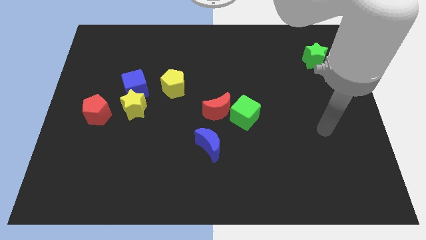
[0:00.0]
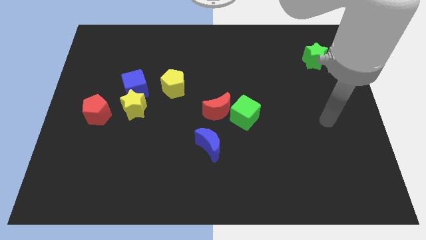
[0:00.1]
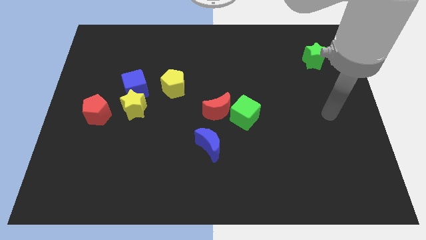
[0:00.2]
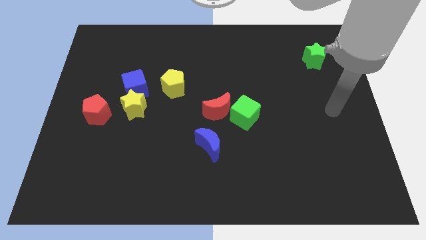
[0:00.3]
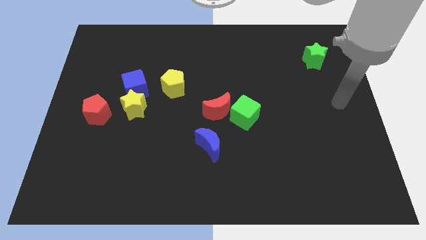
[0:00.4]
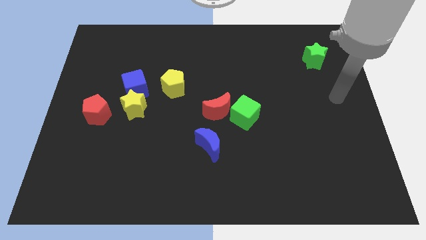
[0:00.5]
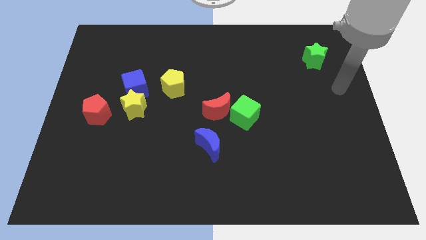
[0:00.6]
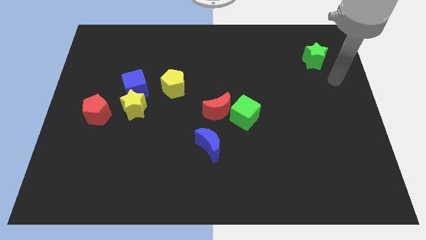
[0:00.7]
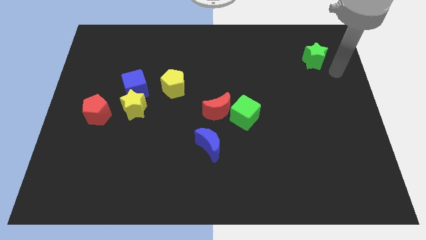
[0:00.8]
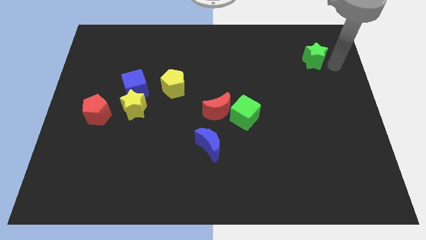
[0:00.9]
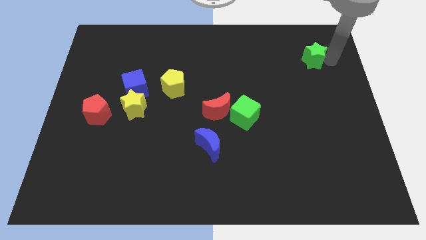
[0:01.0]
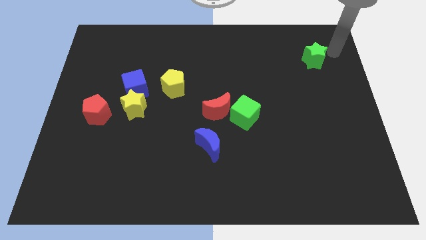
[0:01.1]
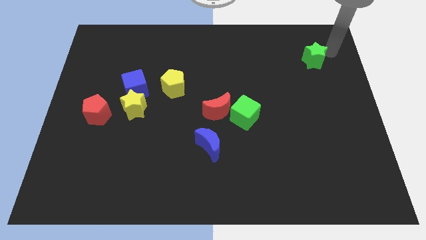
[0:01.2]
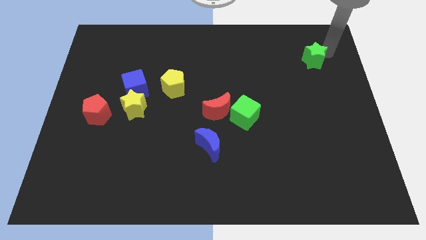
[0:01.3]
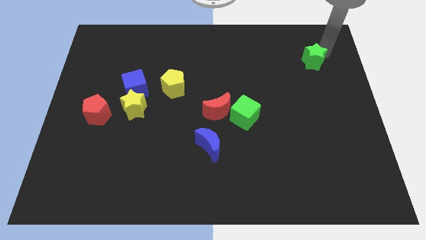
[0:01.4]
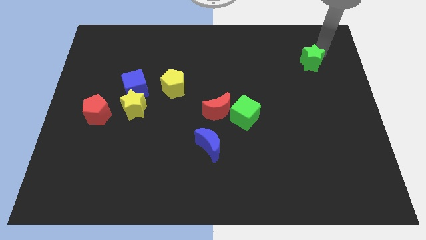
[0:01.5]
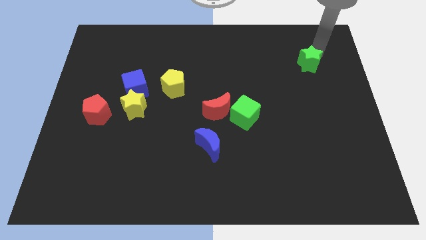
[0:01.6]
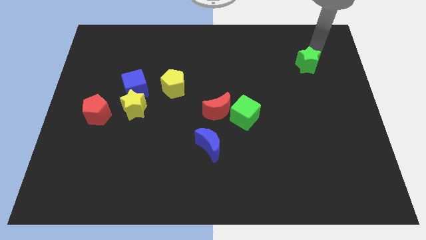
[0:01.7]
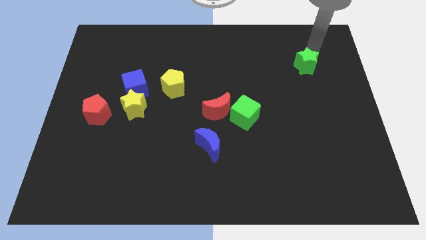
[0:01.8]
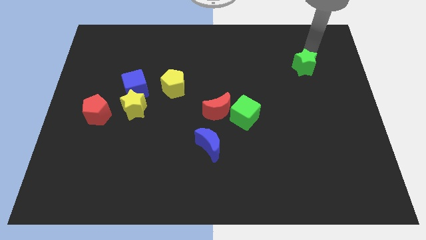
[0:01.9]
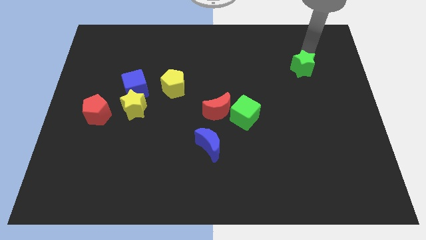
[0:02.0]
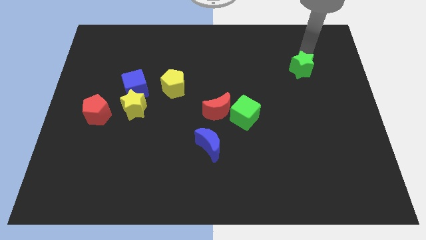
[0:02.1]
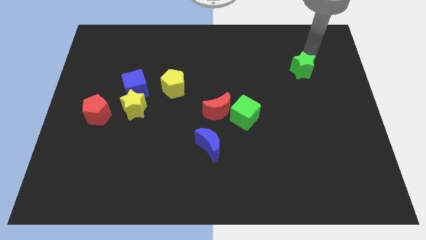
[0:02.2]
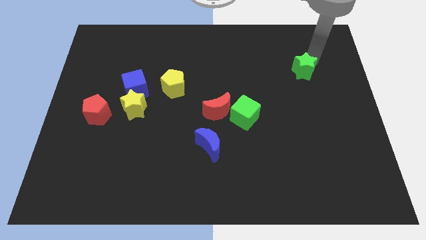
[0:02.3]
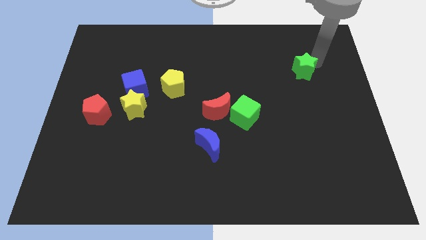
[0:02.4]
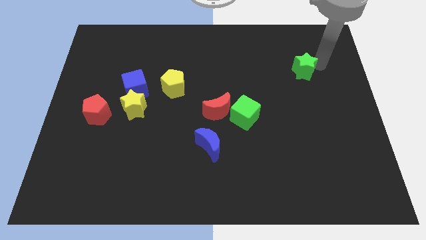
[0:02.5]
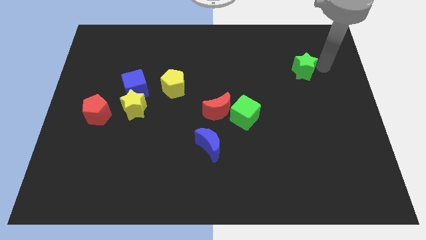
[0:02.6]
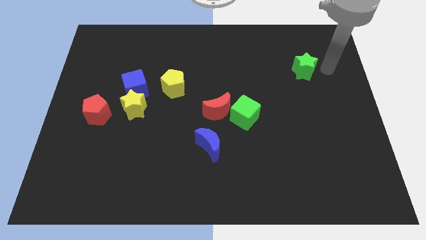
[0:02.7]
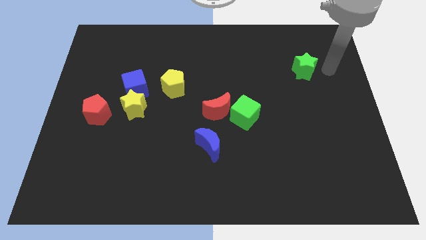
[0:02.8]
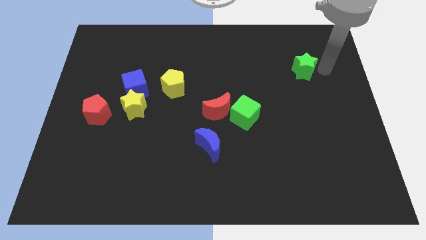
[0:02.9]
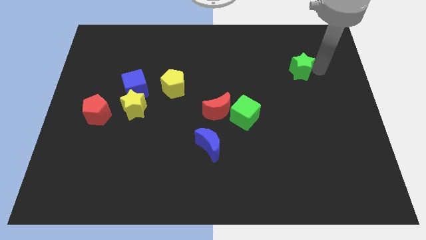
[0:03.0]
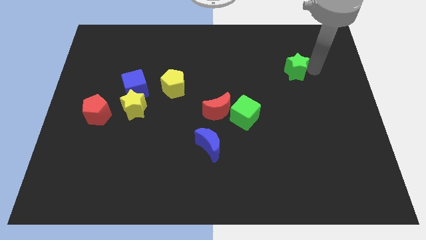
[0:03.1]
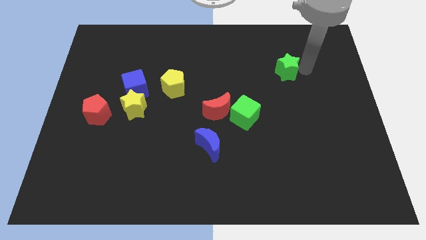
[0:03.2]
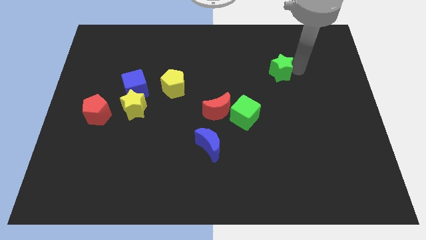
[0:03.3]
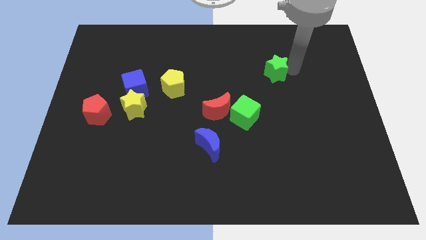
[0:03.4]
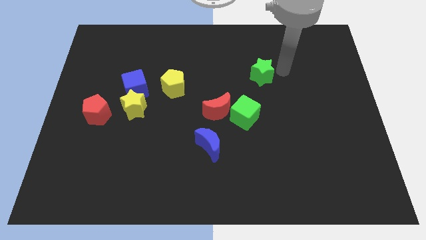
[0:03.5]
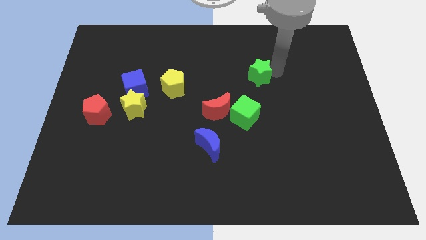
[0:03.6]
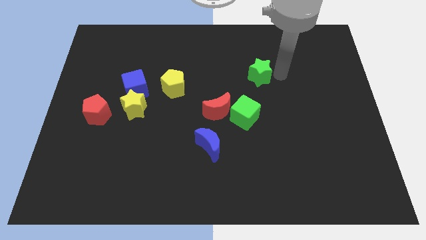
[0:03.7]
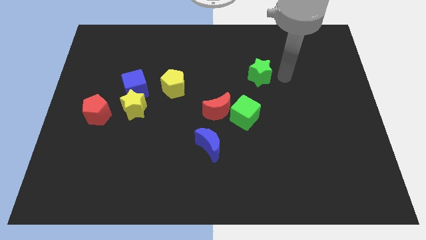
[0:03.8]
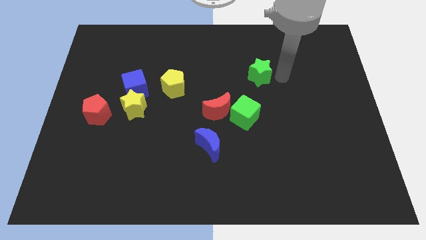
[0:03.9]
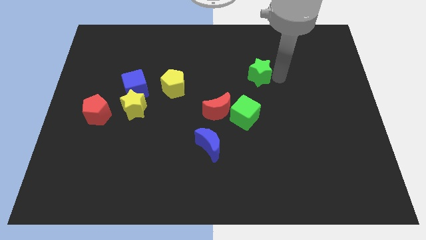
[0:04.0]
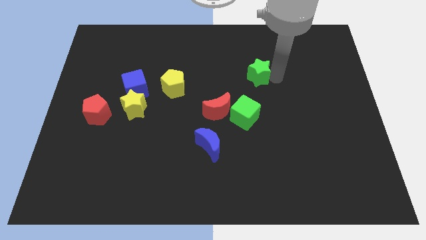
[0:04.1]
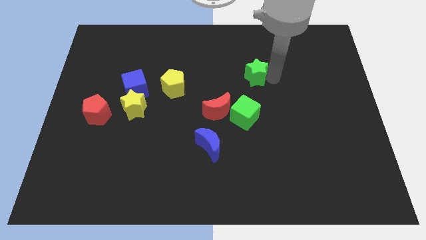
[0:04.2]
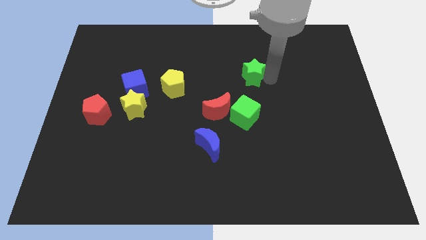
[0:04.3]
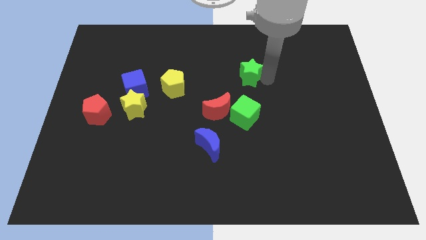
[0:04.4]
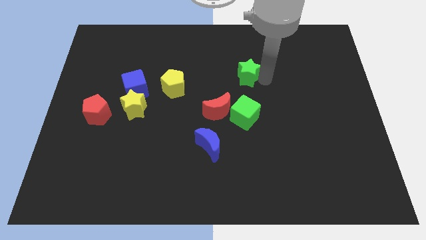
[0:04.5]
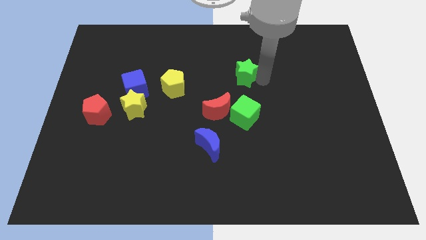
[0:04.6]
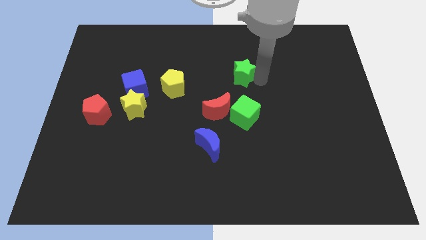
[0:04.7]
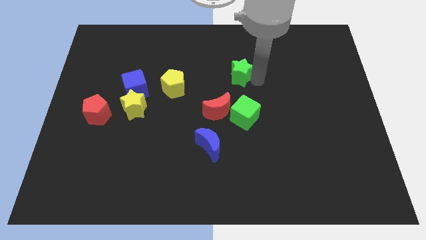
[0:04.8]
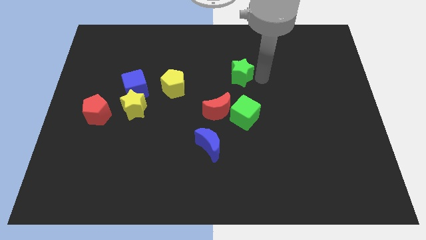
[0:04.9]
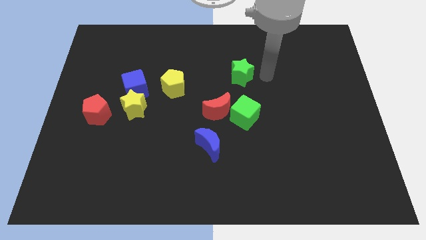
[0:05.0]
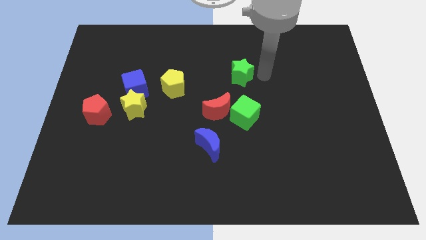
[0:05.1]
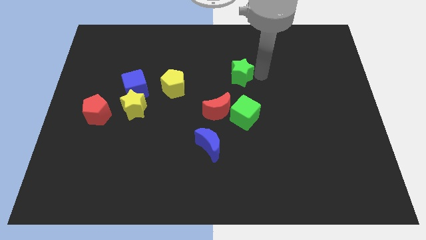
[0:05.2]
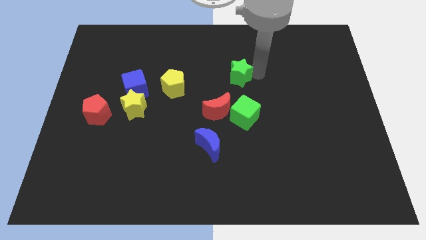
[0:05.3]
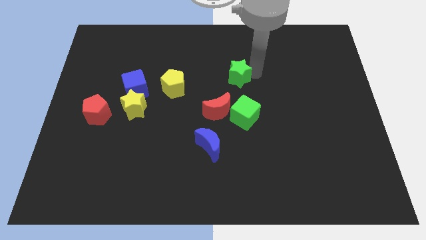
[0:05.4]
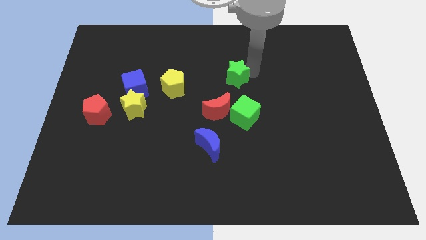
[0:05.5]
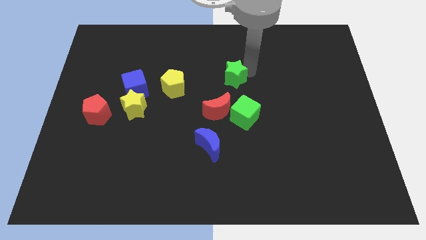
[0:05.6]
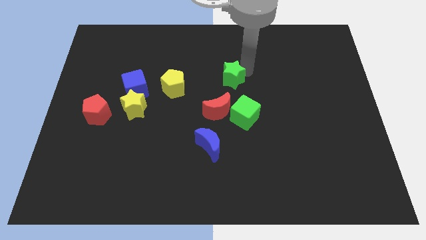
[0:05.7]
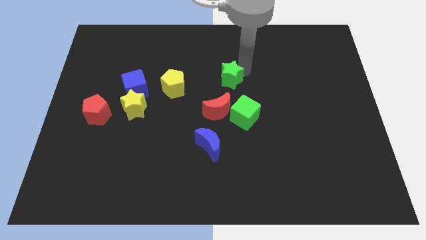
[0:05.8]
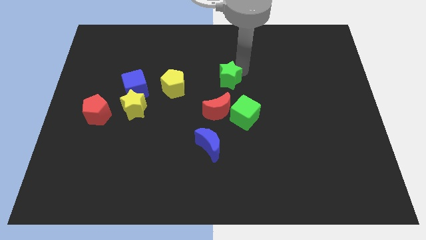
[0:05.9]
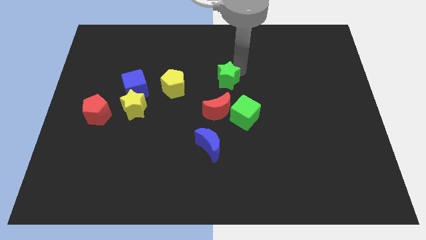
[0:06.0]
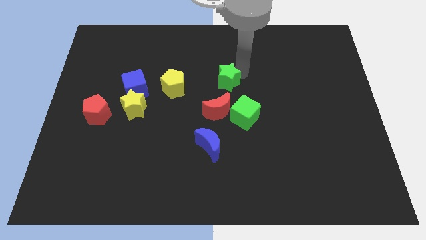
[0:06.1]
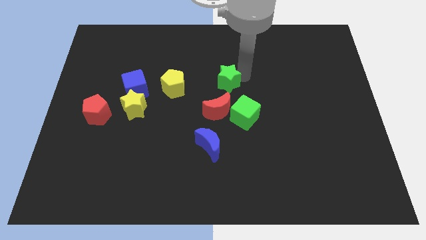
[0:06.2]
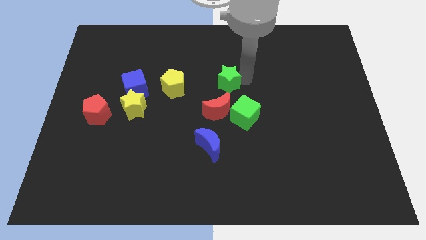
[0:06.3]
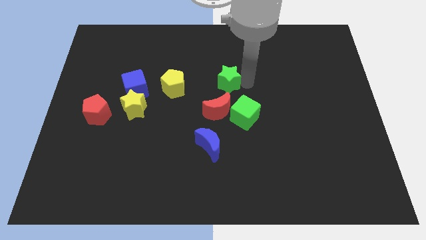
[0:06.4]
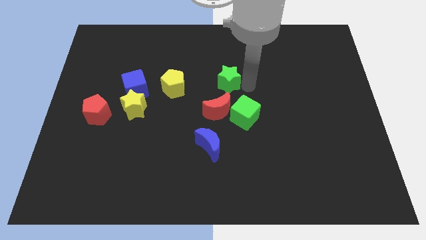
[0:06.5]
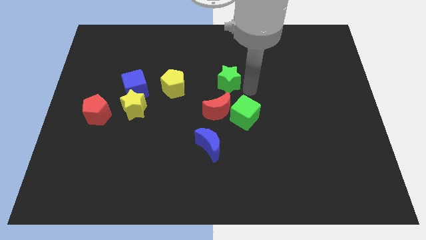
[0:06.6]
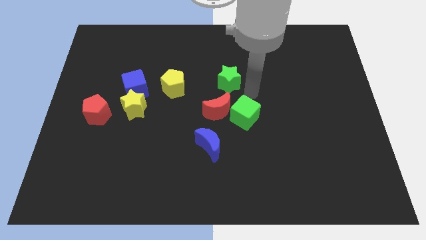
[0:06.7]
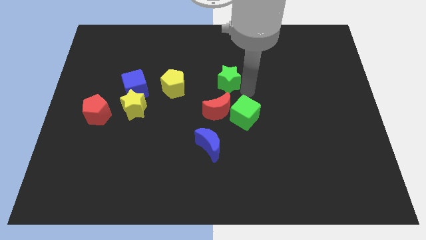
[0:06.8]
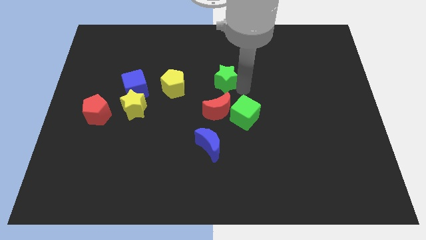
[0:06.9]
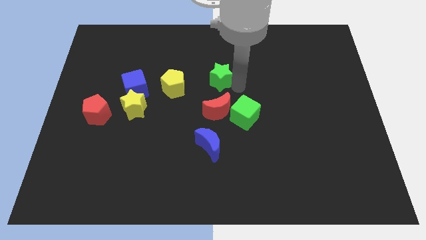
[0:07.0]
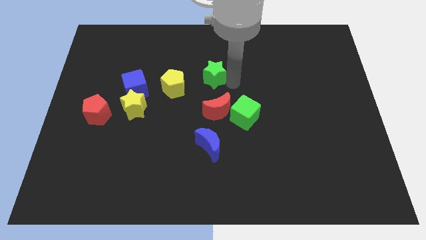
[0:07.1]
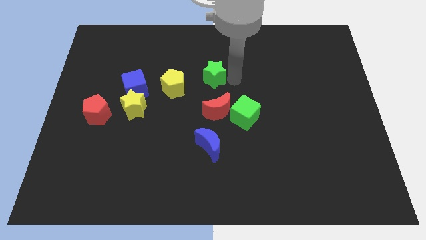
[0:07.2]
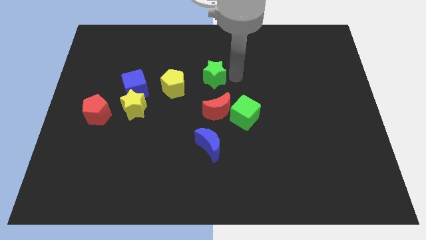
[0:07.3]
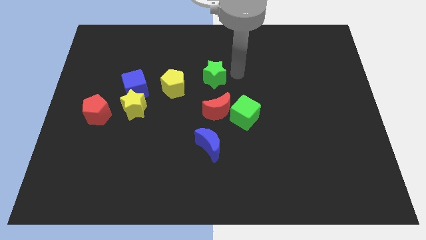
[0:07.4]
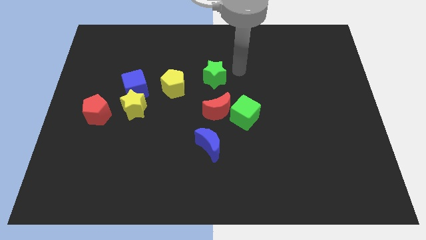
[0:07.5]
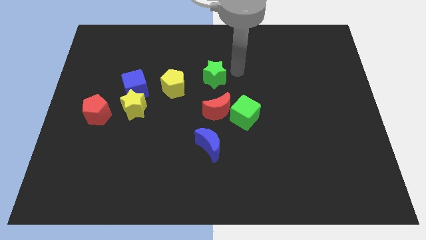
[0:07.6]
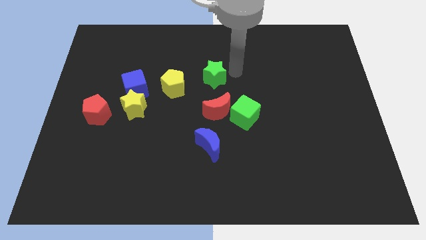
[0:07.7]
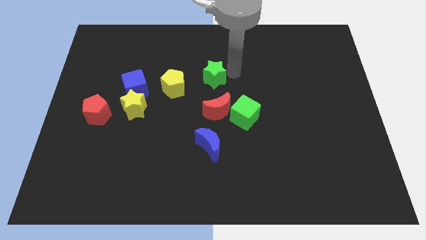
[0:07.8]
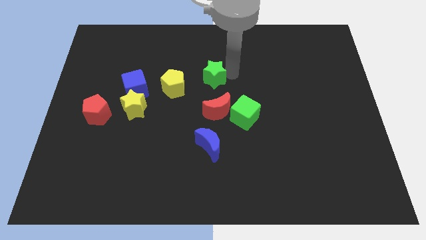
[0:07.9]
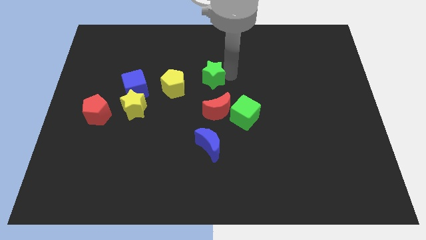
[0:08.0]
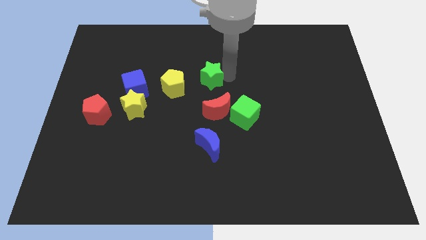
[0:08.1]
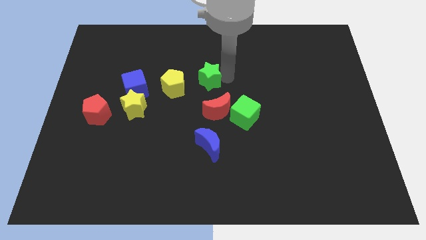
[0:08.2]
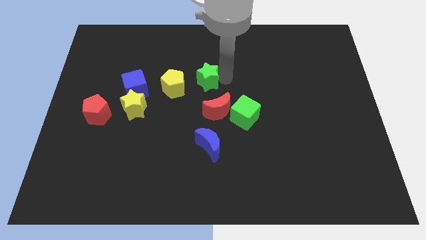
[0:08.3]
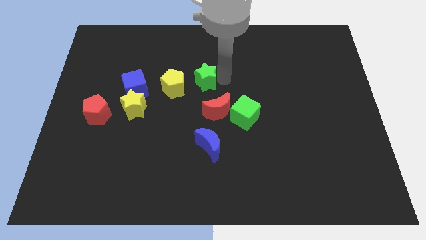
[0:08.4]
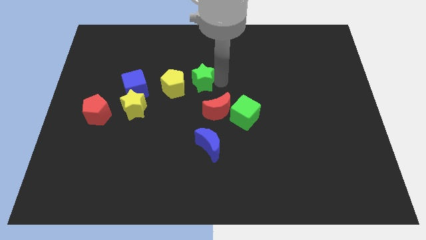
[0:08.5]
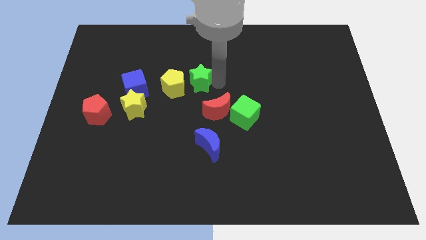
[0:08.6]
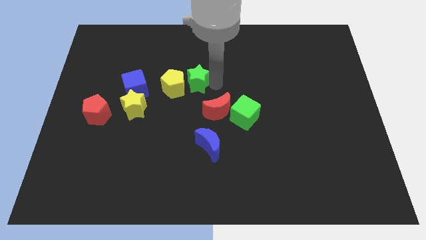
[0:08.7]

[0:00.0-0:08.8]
push the green star towards the yellow pentagon
